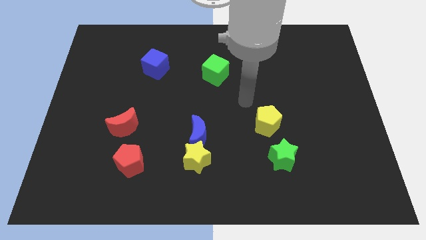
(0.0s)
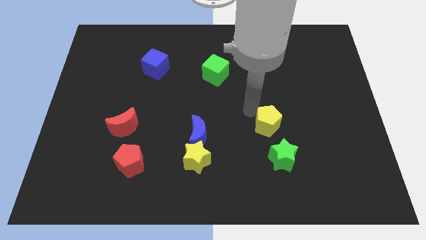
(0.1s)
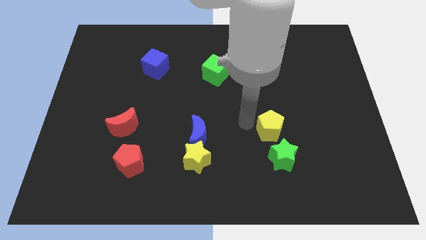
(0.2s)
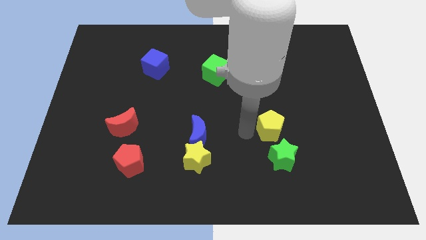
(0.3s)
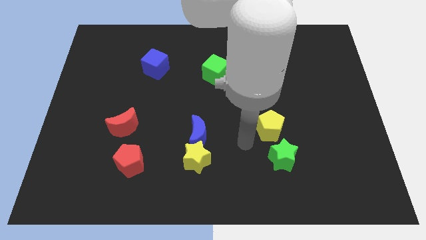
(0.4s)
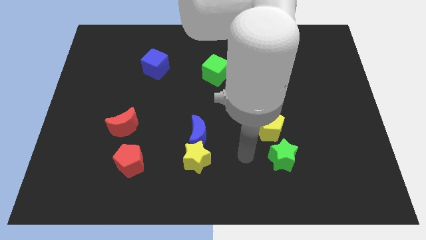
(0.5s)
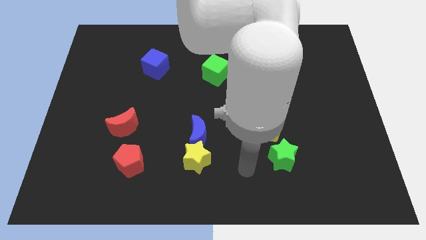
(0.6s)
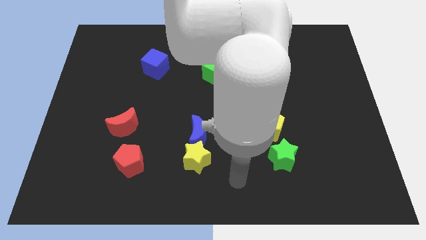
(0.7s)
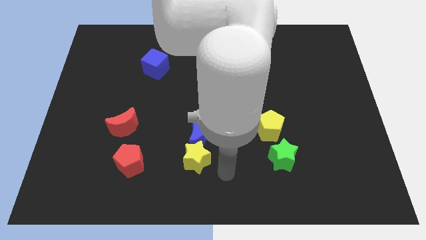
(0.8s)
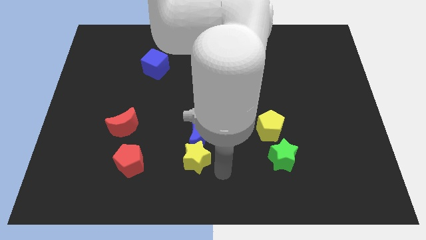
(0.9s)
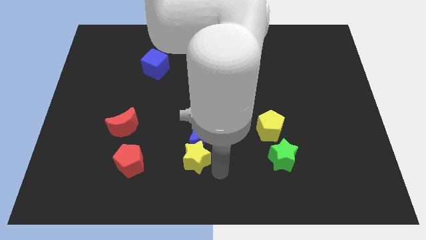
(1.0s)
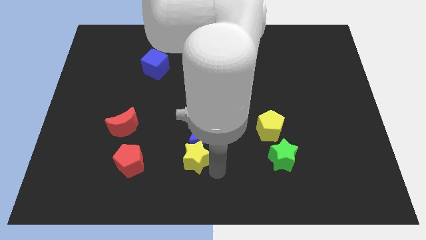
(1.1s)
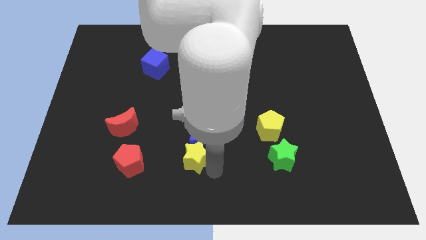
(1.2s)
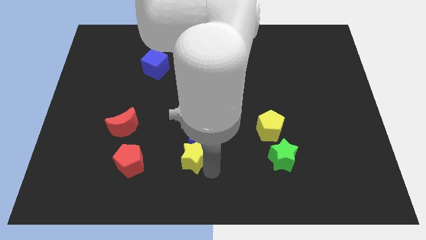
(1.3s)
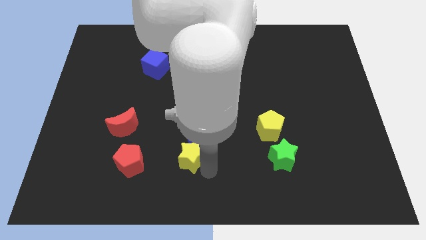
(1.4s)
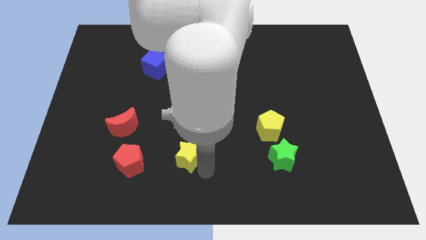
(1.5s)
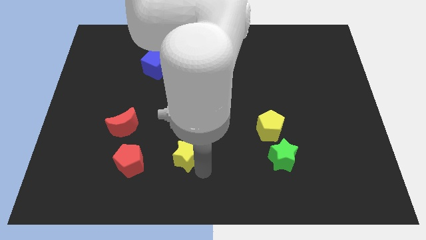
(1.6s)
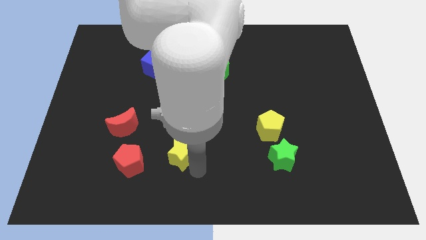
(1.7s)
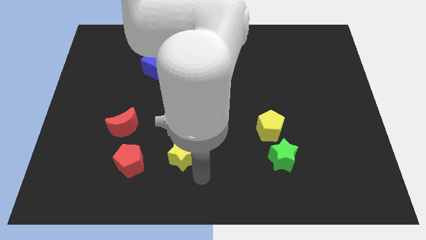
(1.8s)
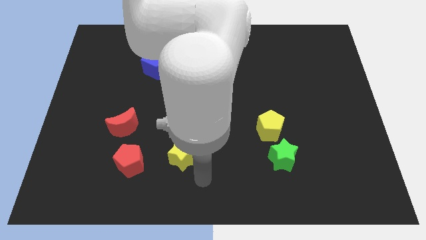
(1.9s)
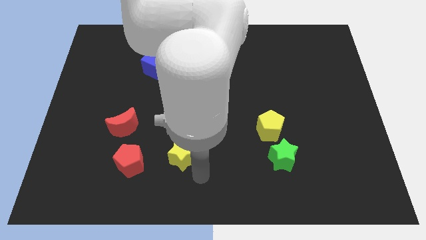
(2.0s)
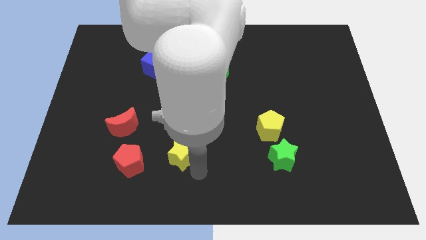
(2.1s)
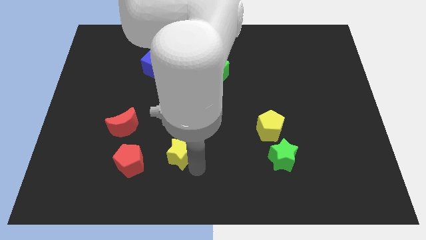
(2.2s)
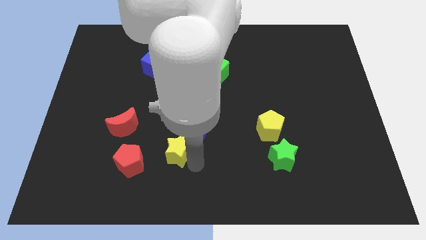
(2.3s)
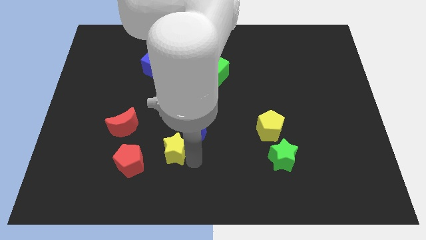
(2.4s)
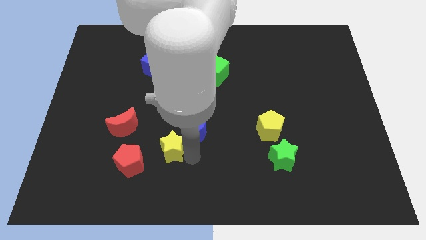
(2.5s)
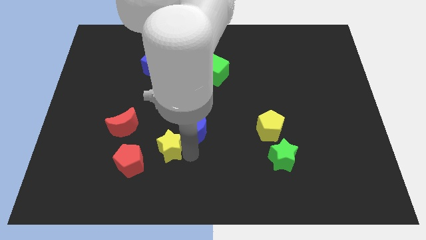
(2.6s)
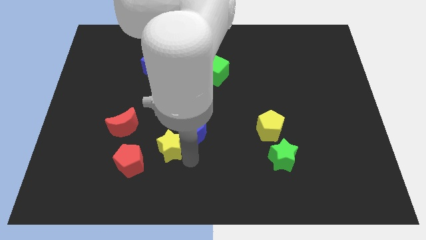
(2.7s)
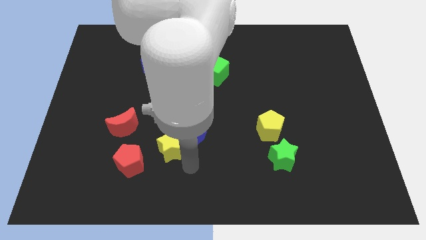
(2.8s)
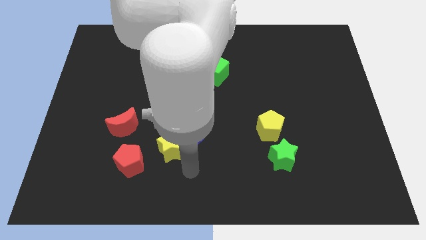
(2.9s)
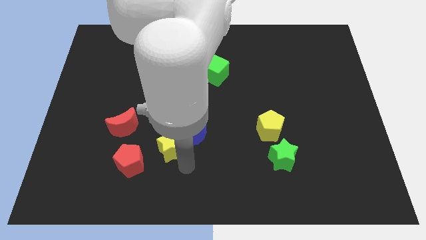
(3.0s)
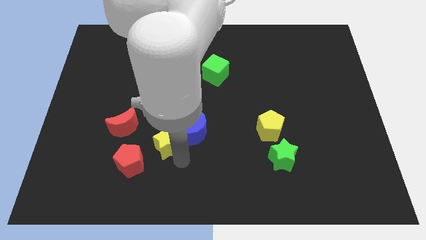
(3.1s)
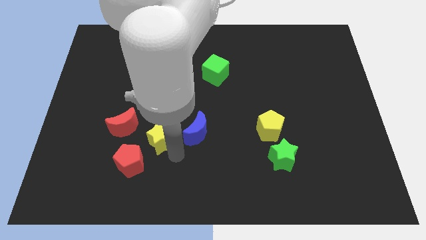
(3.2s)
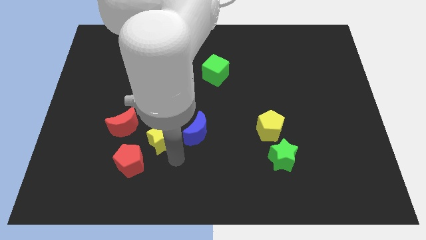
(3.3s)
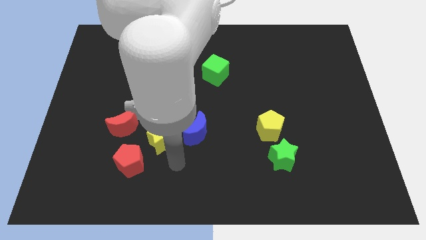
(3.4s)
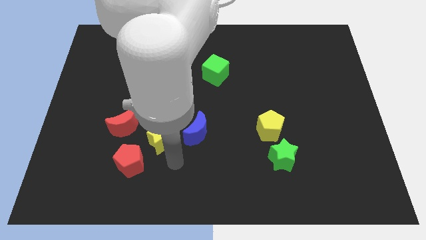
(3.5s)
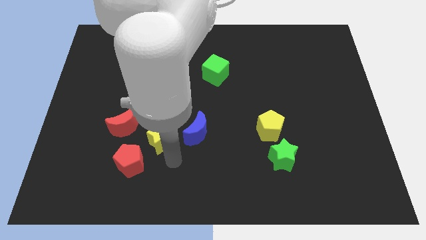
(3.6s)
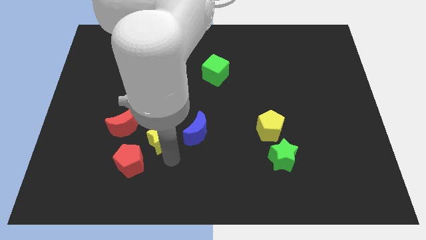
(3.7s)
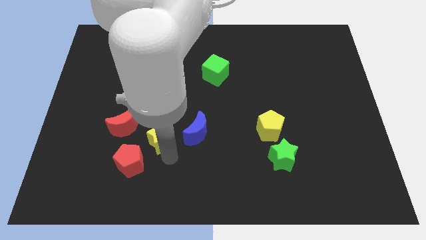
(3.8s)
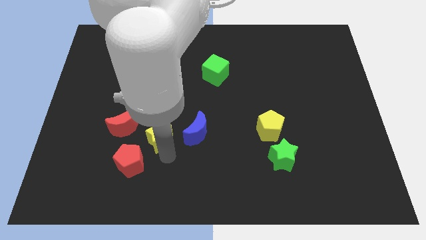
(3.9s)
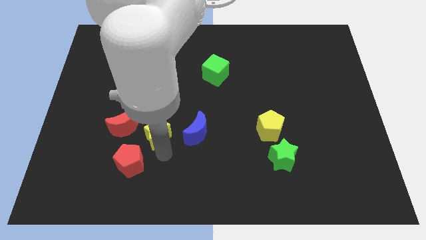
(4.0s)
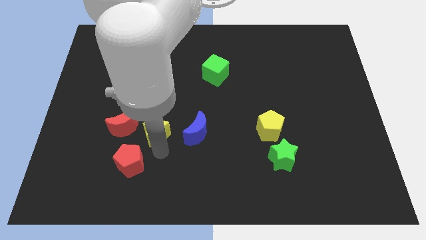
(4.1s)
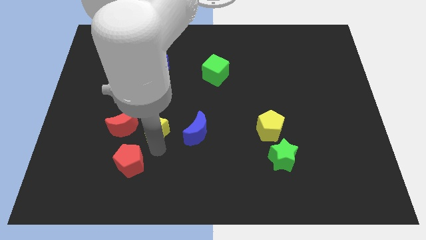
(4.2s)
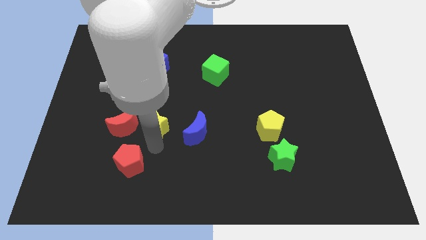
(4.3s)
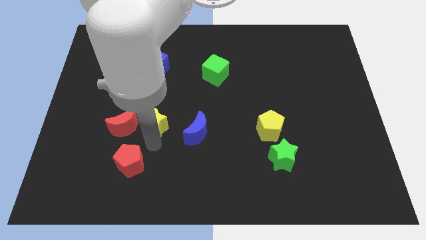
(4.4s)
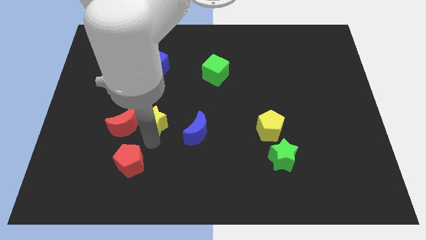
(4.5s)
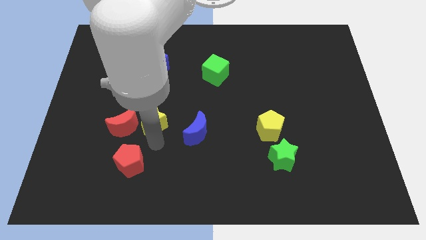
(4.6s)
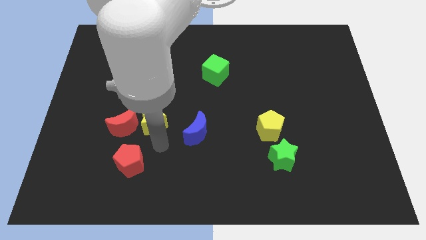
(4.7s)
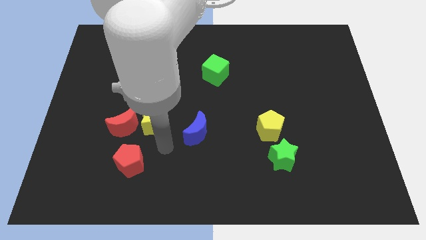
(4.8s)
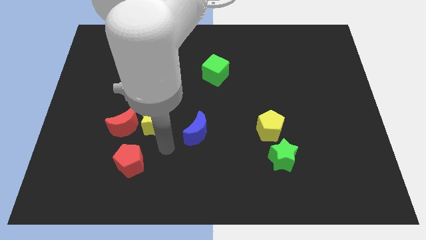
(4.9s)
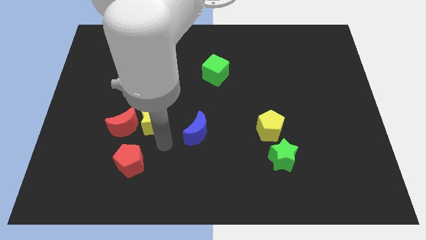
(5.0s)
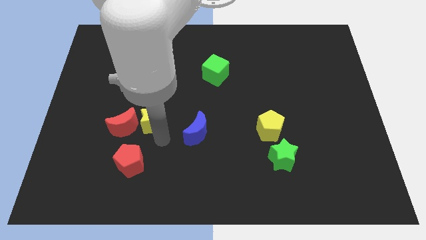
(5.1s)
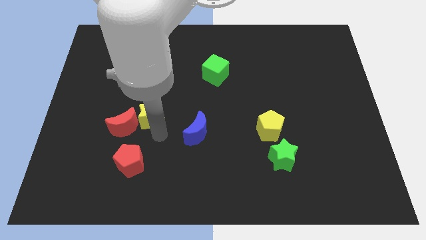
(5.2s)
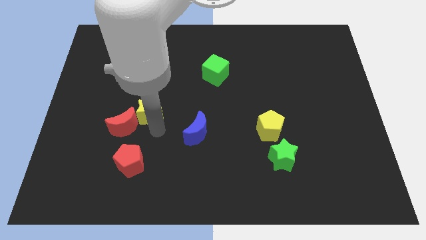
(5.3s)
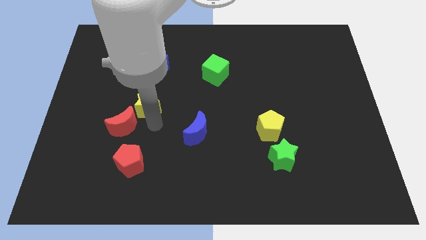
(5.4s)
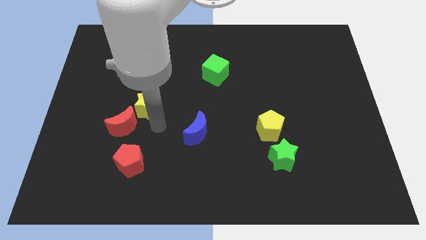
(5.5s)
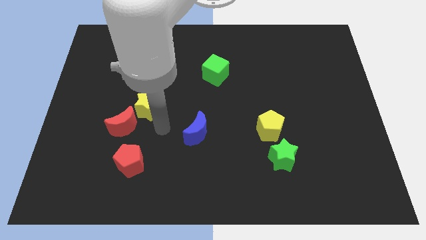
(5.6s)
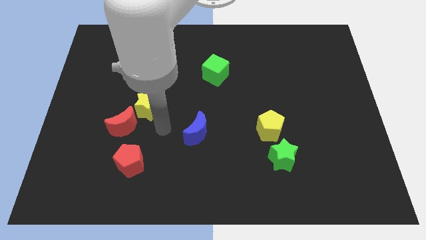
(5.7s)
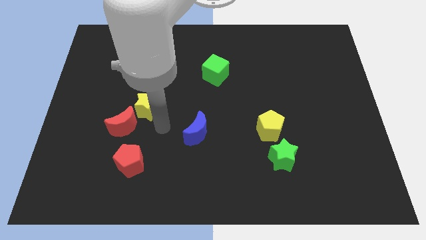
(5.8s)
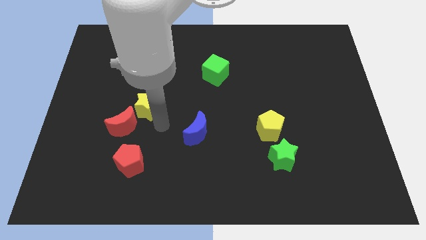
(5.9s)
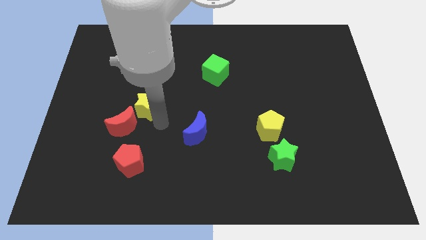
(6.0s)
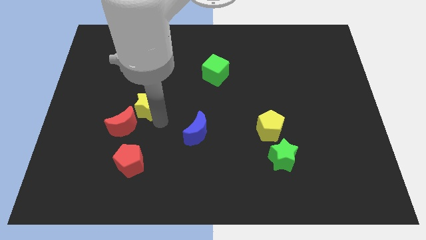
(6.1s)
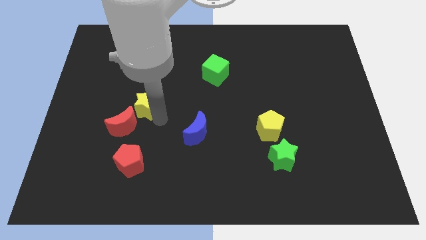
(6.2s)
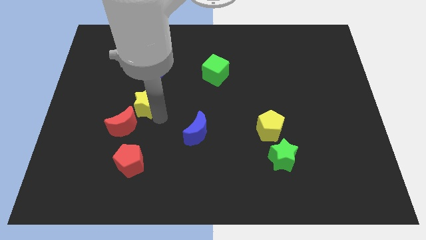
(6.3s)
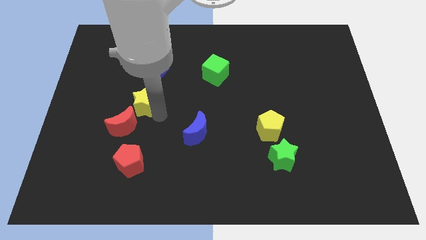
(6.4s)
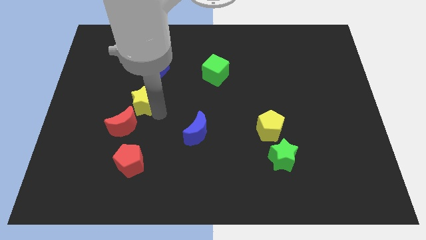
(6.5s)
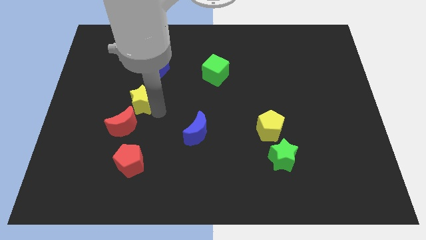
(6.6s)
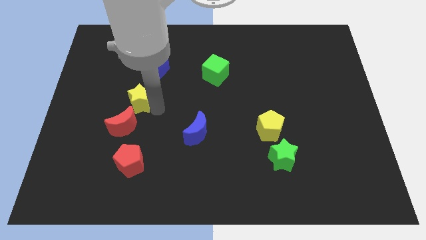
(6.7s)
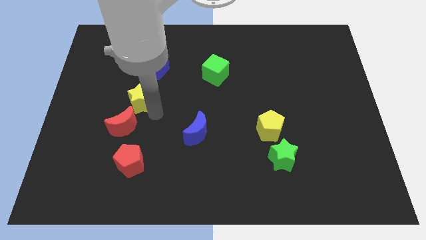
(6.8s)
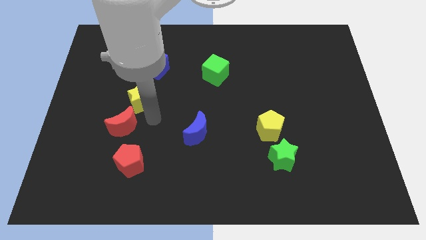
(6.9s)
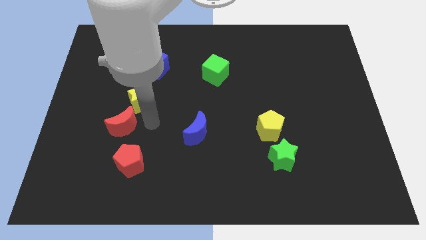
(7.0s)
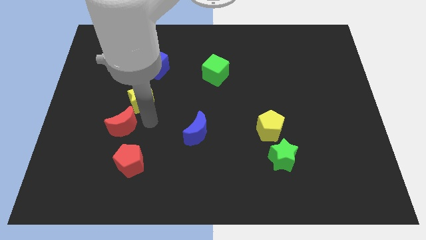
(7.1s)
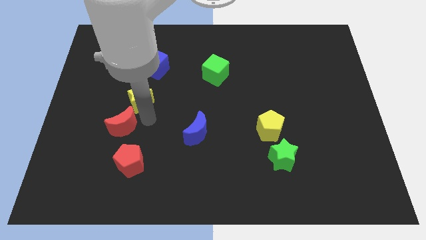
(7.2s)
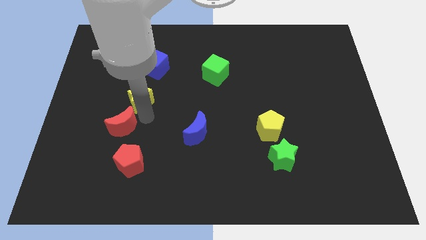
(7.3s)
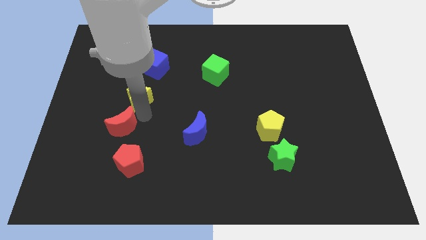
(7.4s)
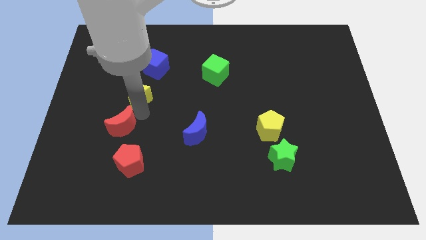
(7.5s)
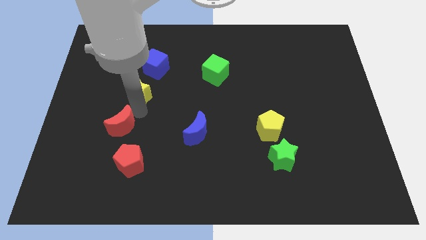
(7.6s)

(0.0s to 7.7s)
put the yellow star to the bottom left side of the blue cube

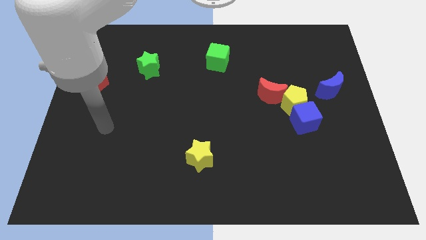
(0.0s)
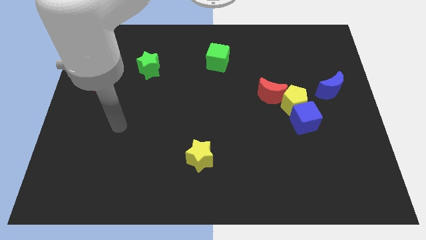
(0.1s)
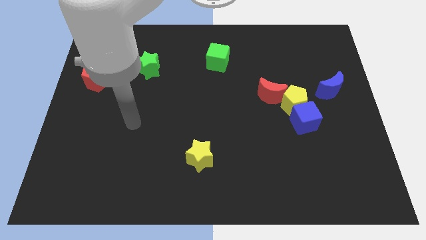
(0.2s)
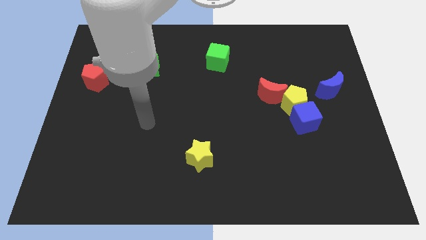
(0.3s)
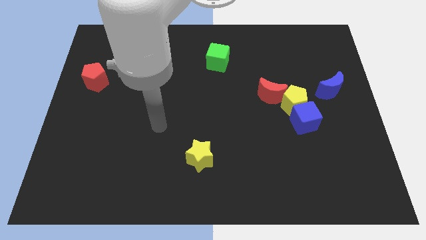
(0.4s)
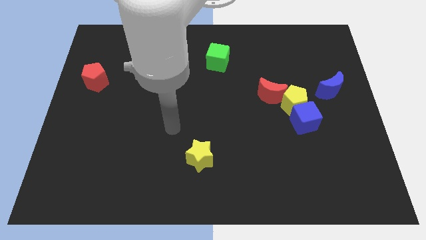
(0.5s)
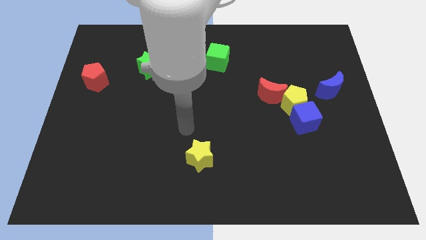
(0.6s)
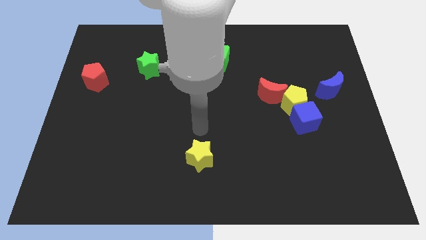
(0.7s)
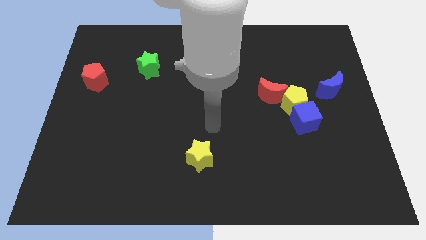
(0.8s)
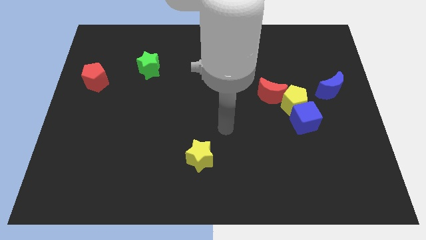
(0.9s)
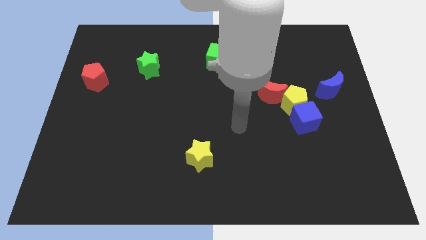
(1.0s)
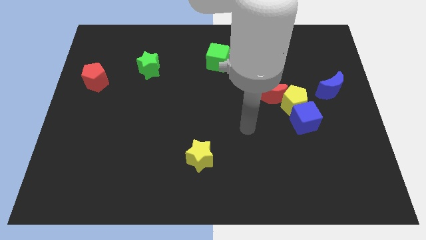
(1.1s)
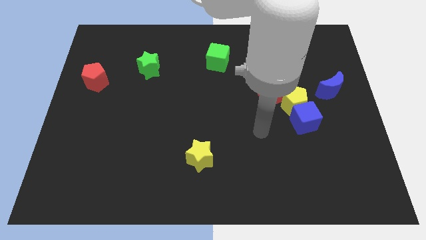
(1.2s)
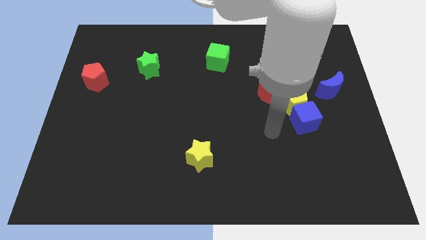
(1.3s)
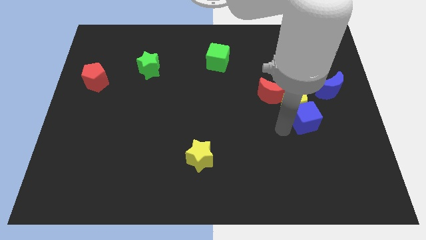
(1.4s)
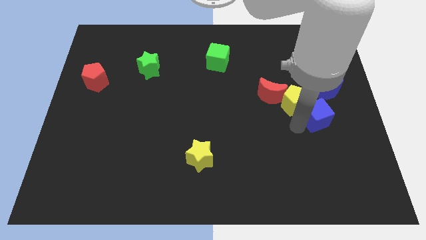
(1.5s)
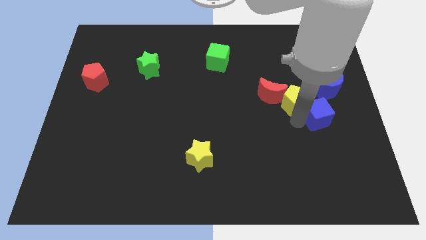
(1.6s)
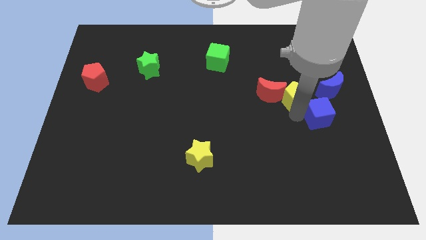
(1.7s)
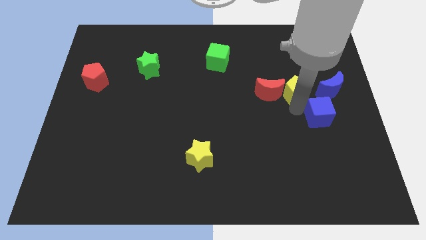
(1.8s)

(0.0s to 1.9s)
push the yellow pentagon to the top right of the red moon
